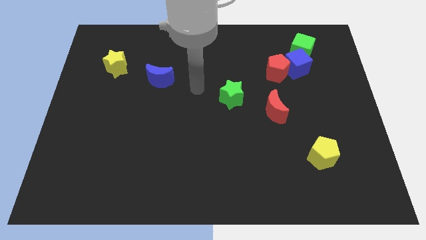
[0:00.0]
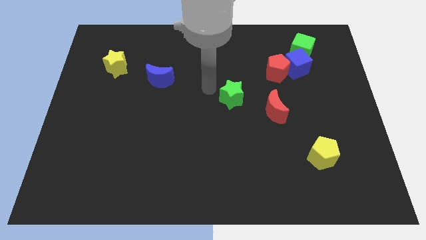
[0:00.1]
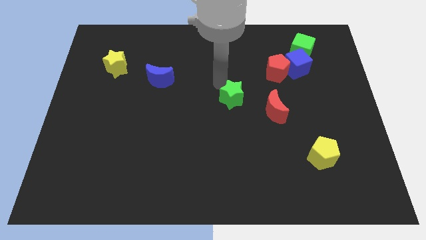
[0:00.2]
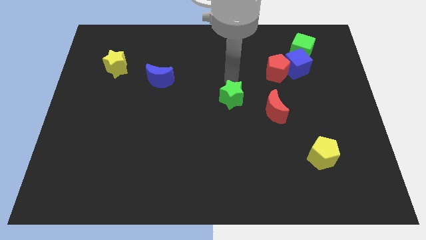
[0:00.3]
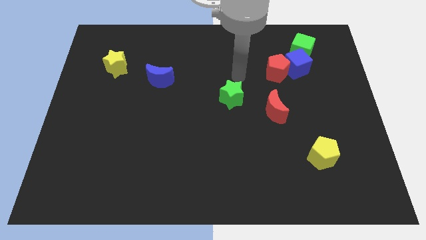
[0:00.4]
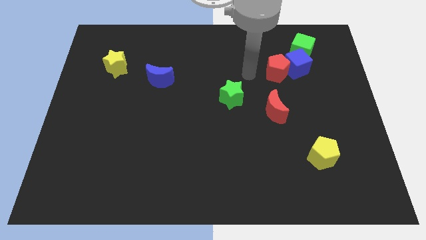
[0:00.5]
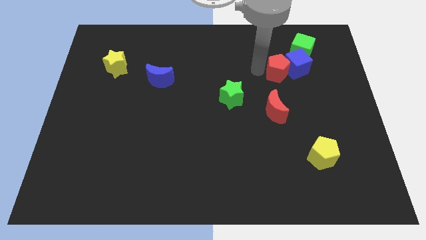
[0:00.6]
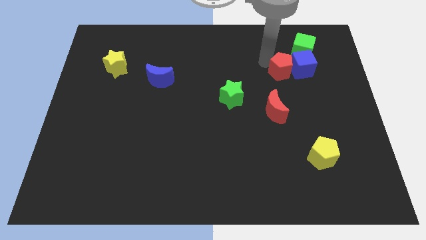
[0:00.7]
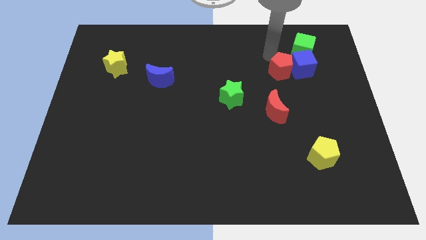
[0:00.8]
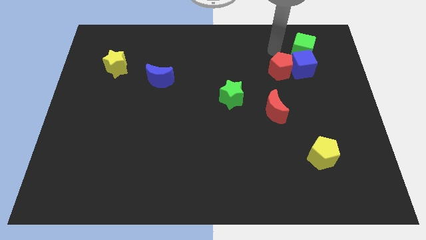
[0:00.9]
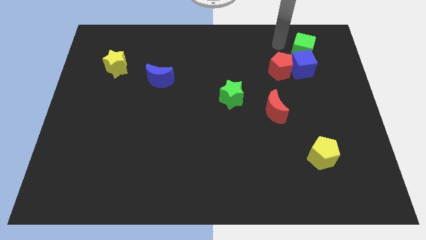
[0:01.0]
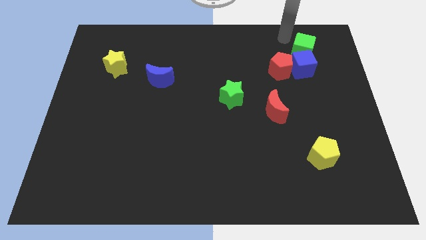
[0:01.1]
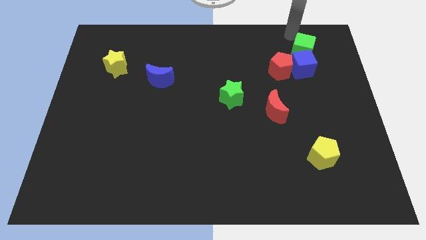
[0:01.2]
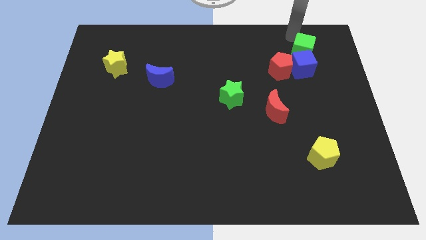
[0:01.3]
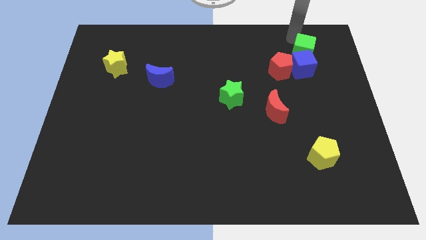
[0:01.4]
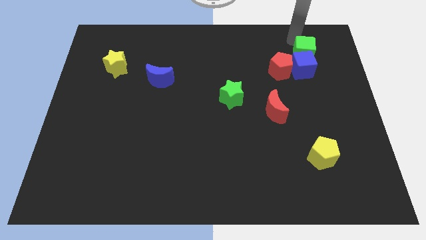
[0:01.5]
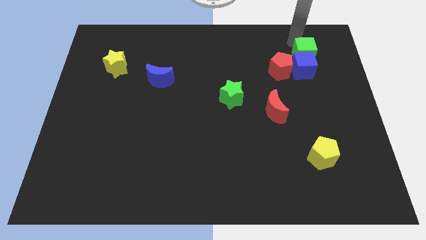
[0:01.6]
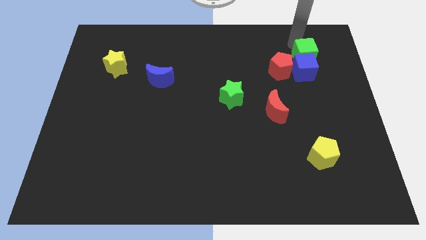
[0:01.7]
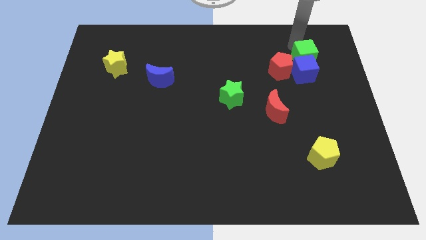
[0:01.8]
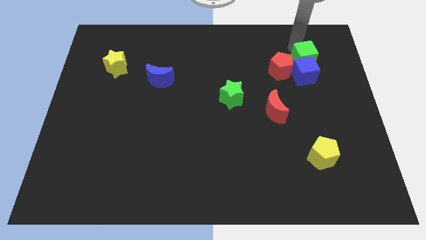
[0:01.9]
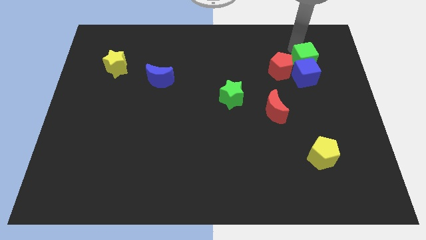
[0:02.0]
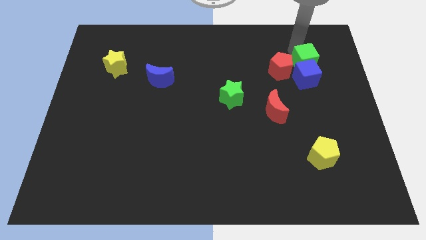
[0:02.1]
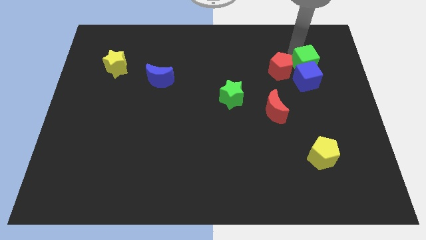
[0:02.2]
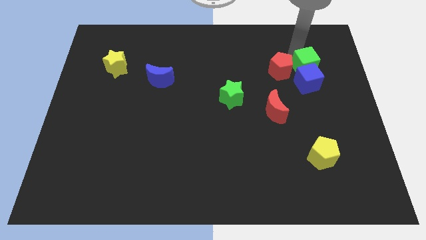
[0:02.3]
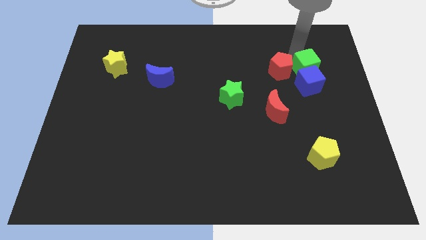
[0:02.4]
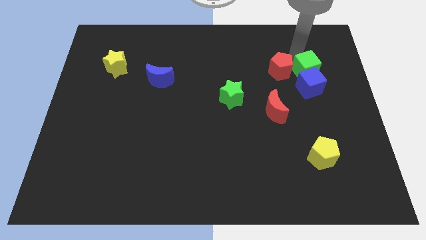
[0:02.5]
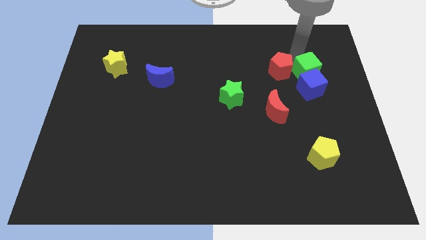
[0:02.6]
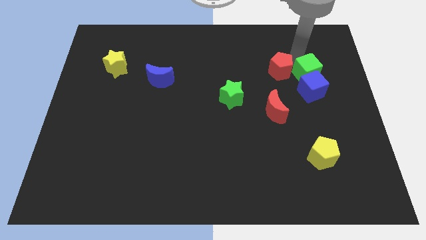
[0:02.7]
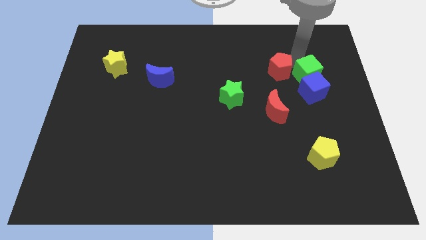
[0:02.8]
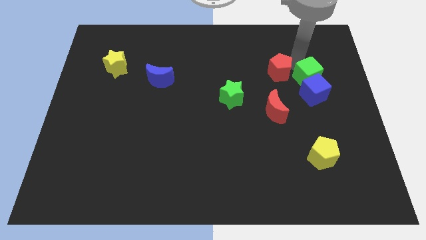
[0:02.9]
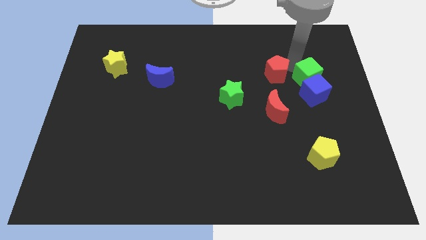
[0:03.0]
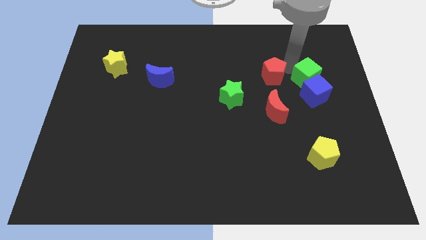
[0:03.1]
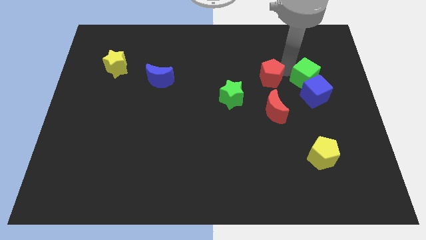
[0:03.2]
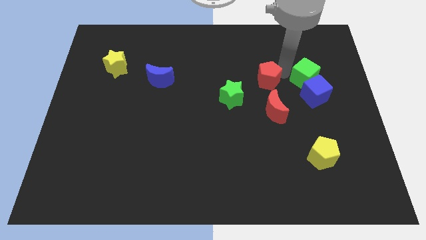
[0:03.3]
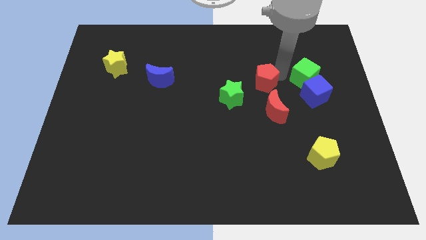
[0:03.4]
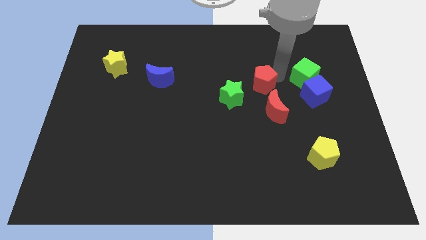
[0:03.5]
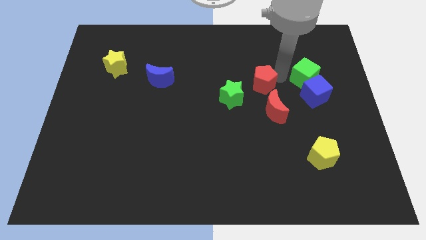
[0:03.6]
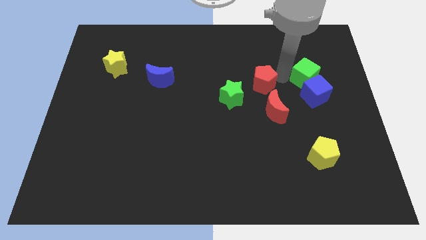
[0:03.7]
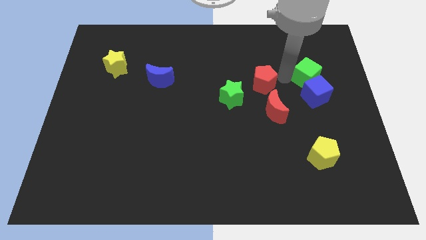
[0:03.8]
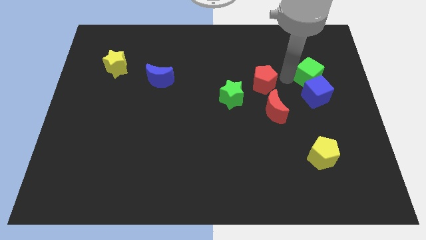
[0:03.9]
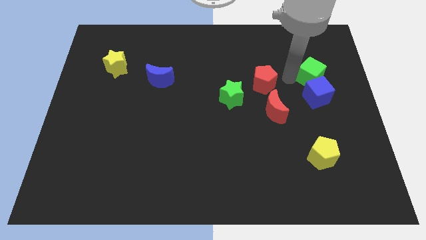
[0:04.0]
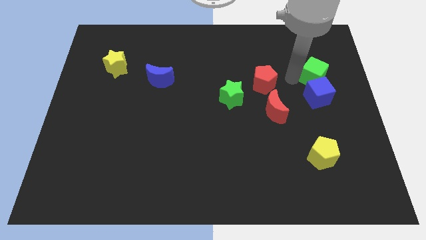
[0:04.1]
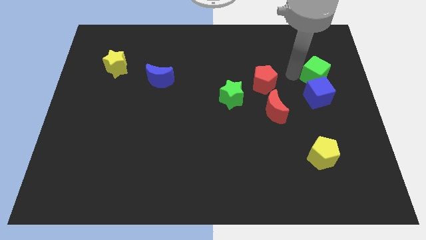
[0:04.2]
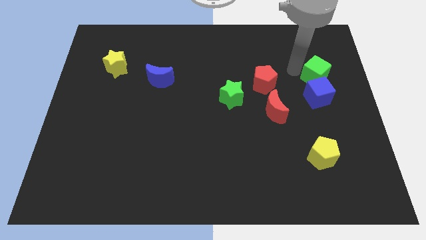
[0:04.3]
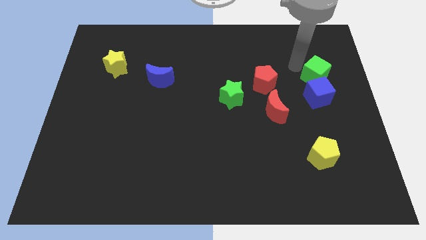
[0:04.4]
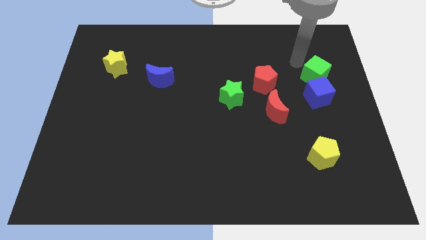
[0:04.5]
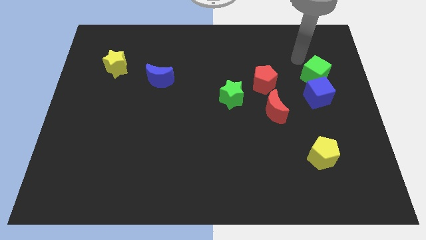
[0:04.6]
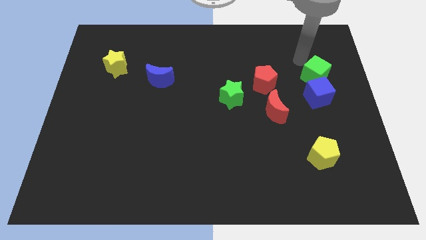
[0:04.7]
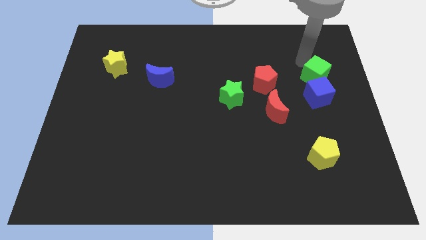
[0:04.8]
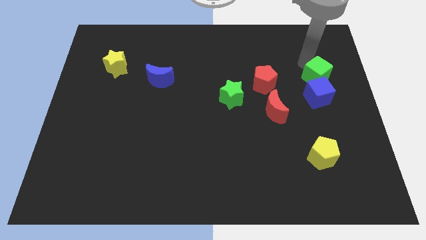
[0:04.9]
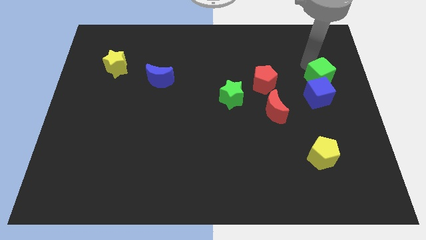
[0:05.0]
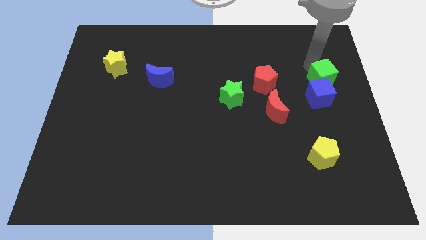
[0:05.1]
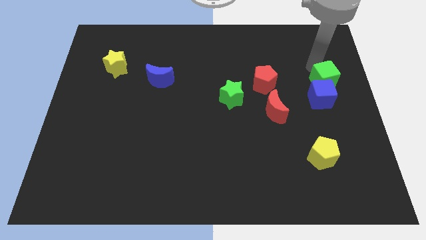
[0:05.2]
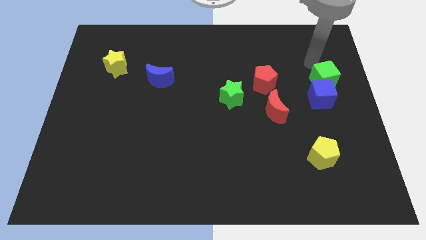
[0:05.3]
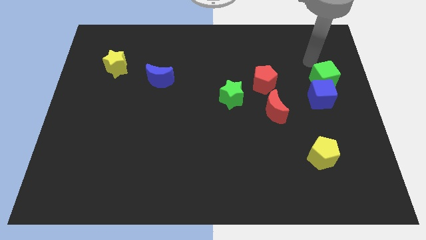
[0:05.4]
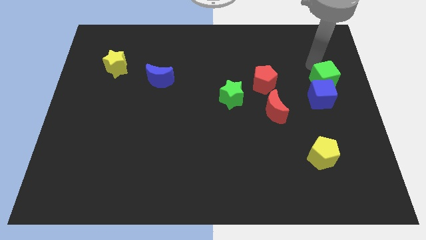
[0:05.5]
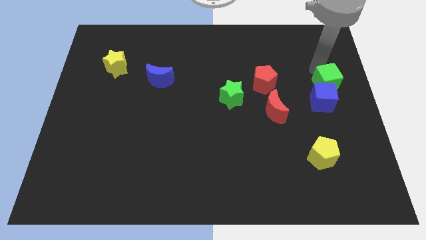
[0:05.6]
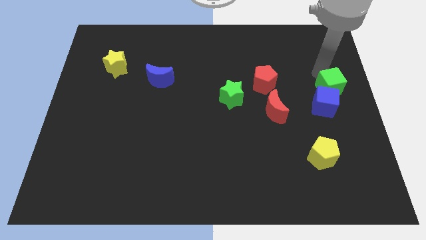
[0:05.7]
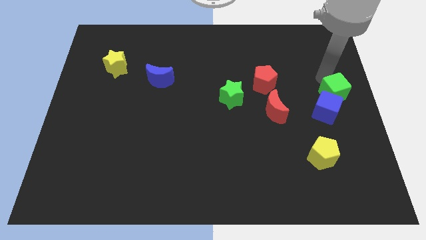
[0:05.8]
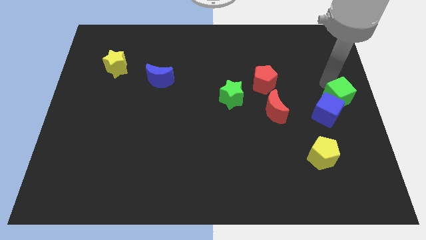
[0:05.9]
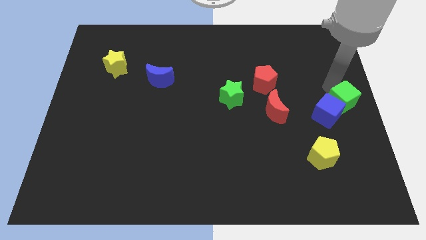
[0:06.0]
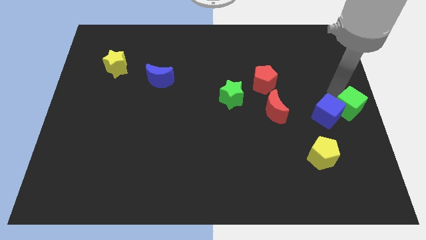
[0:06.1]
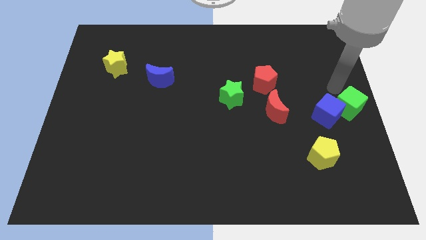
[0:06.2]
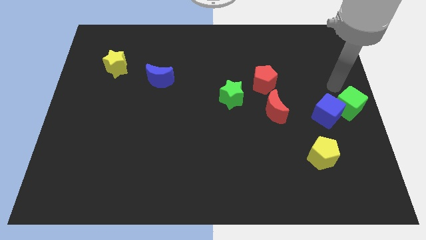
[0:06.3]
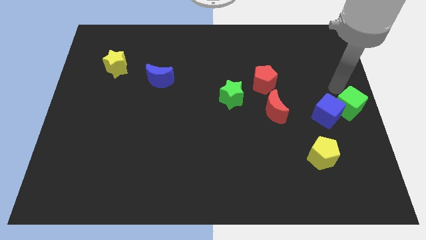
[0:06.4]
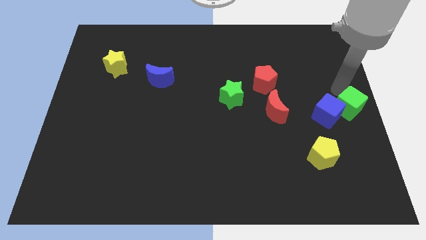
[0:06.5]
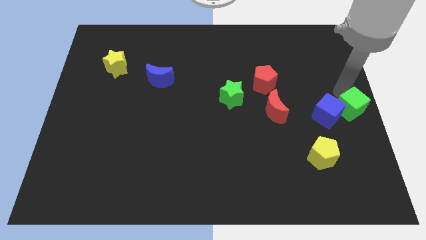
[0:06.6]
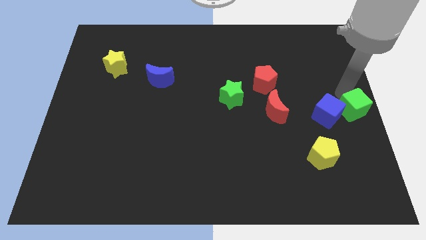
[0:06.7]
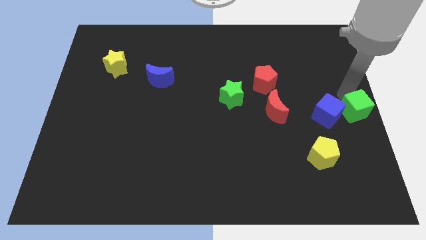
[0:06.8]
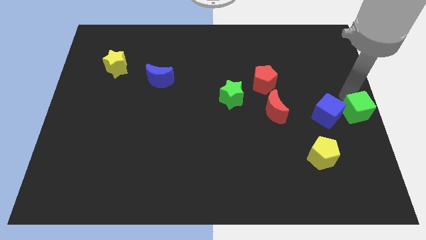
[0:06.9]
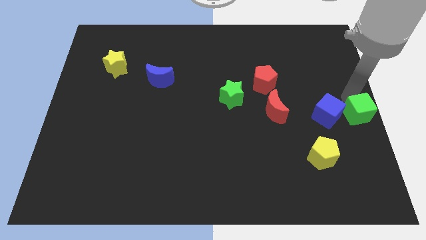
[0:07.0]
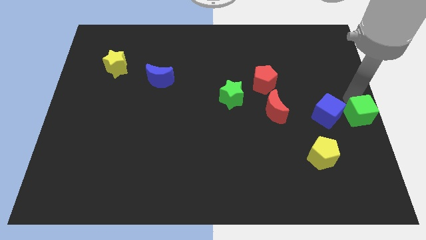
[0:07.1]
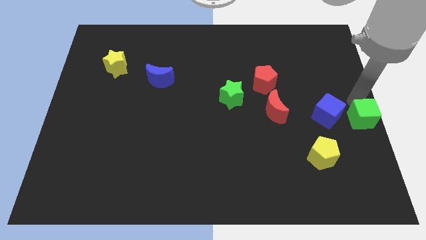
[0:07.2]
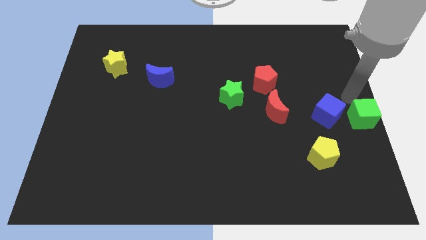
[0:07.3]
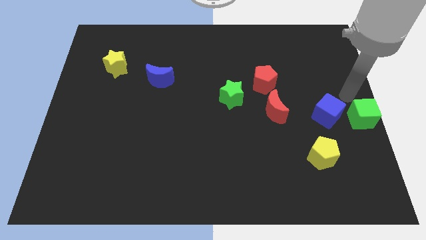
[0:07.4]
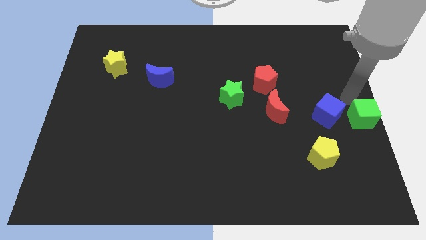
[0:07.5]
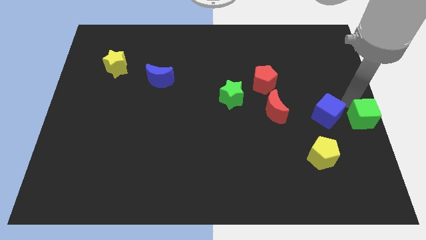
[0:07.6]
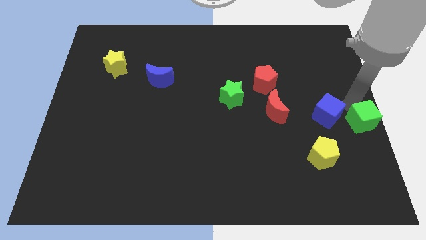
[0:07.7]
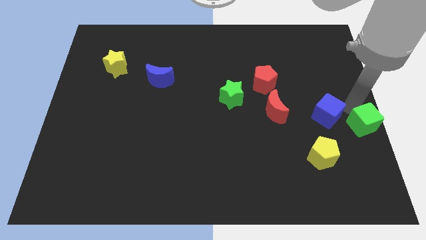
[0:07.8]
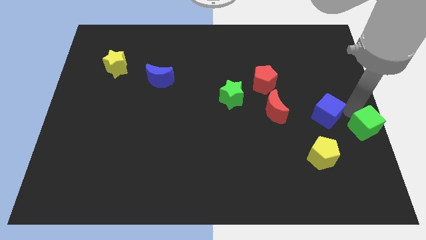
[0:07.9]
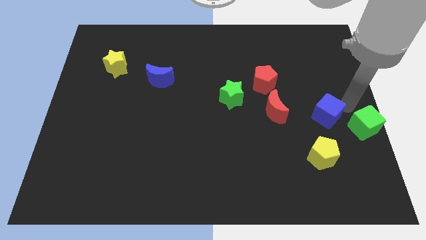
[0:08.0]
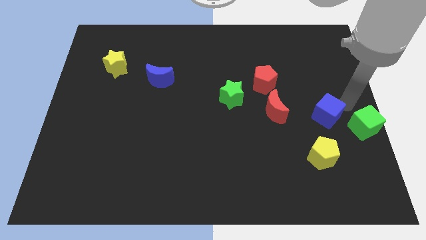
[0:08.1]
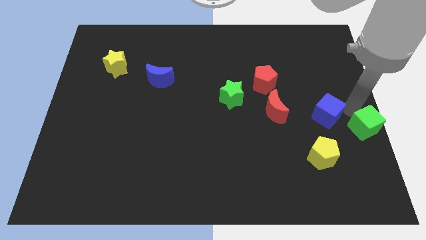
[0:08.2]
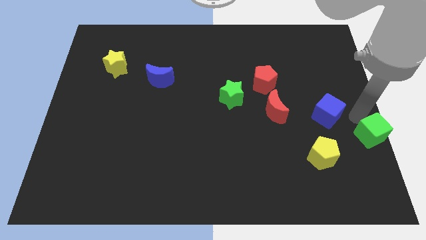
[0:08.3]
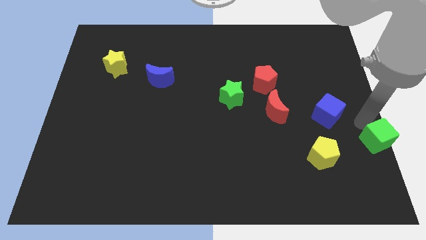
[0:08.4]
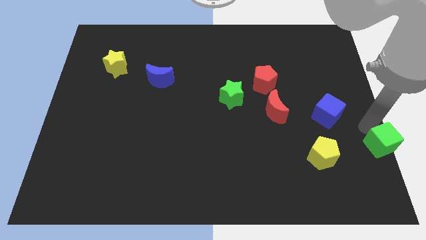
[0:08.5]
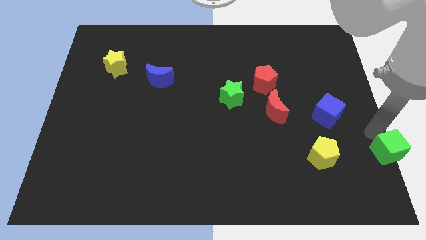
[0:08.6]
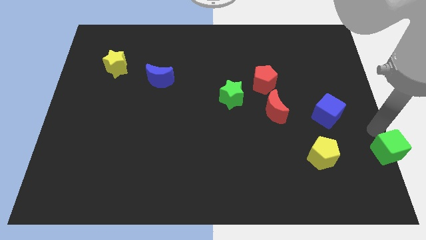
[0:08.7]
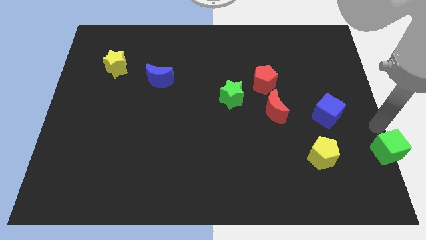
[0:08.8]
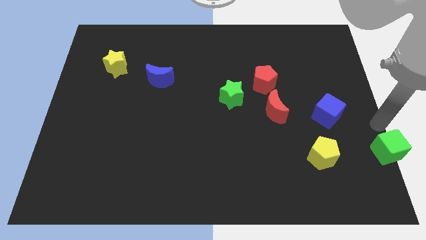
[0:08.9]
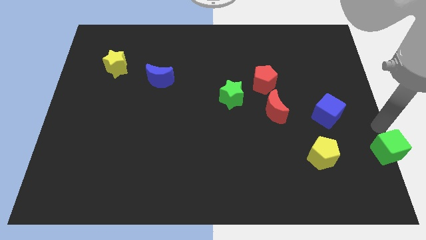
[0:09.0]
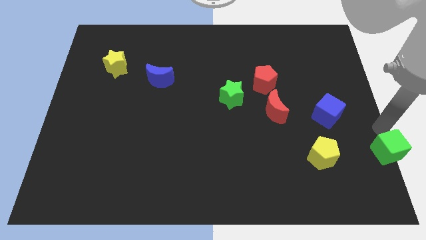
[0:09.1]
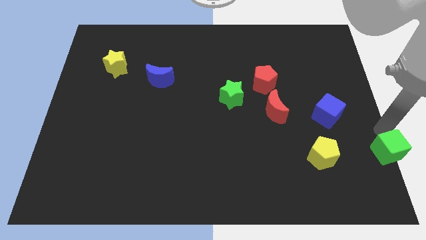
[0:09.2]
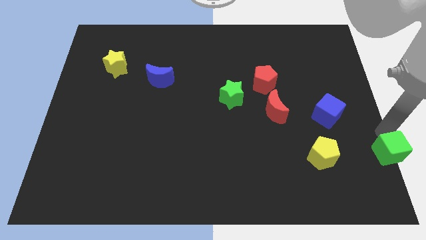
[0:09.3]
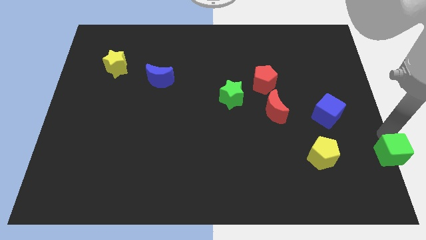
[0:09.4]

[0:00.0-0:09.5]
move the green cube to the bottom right
